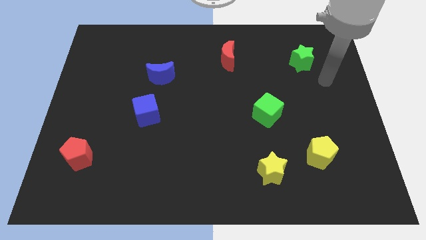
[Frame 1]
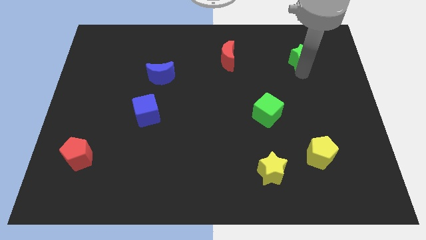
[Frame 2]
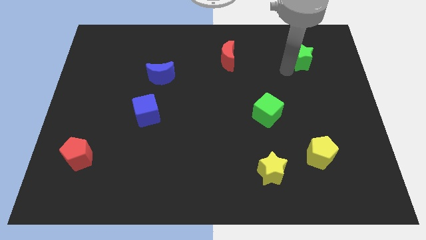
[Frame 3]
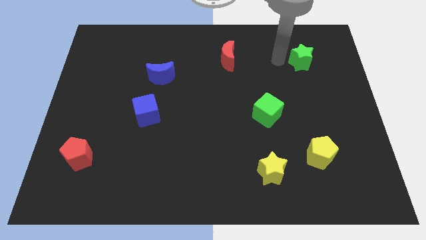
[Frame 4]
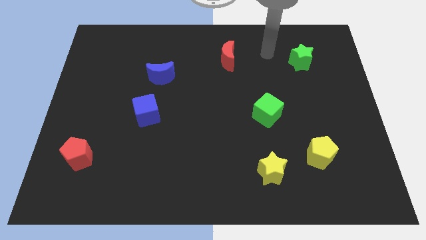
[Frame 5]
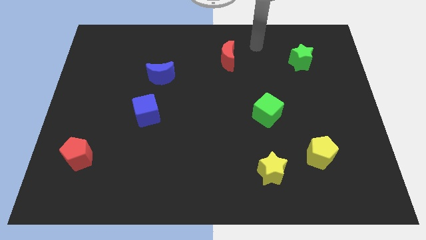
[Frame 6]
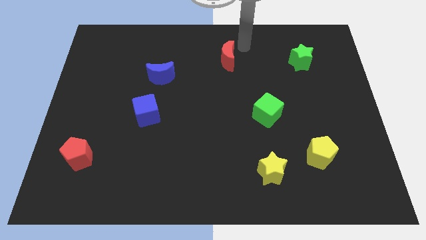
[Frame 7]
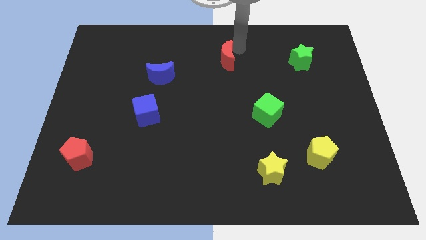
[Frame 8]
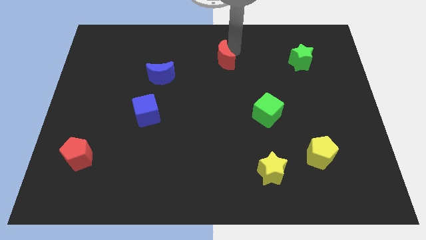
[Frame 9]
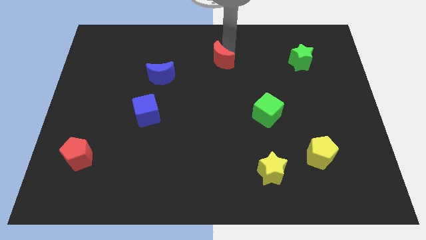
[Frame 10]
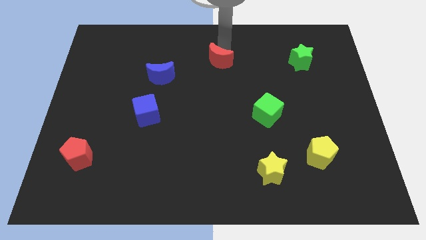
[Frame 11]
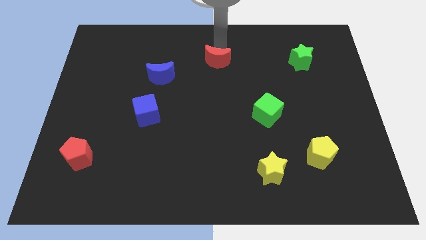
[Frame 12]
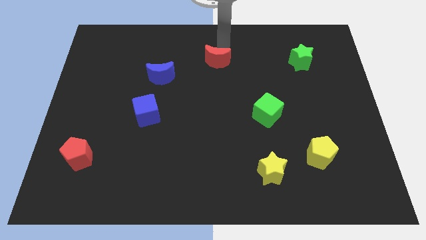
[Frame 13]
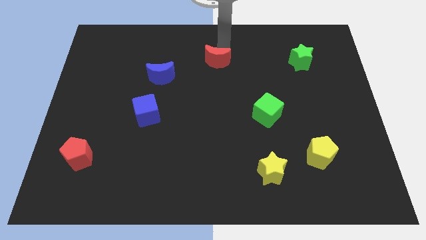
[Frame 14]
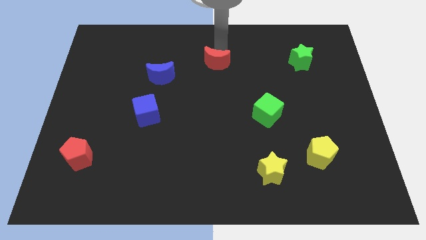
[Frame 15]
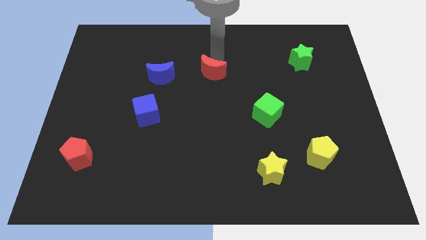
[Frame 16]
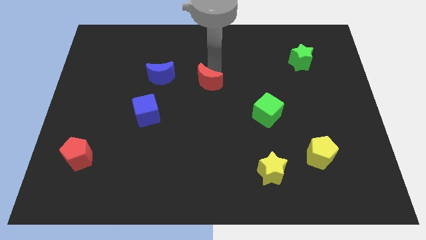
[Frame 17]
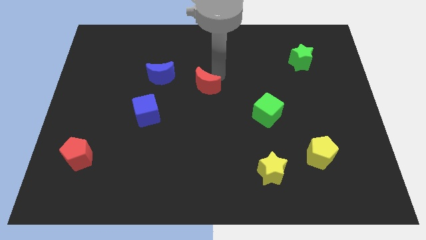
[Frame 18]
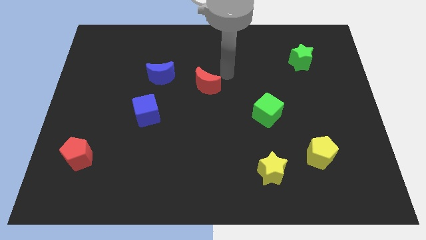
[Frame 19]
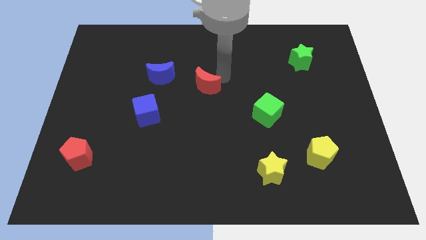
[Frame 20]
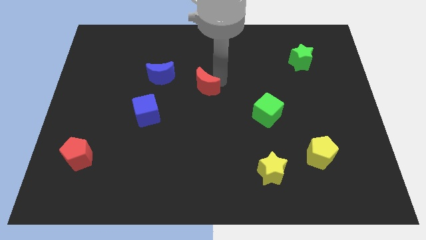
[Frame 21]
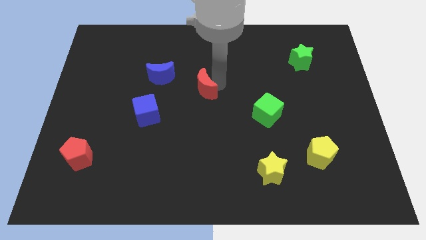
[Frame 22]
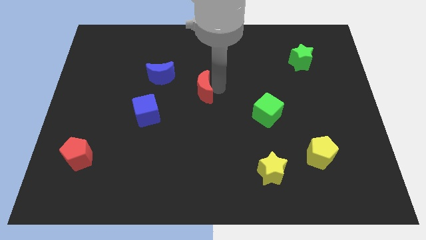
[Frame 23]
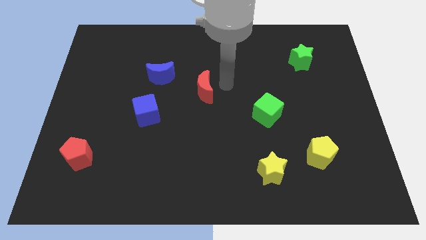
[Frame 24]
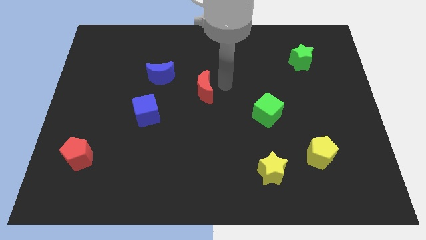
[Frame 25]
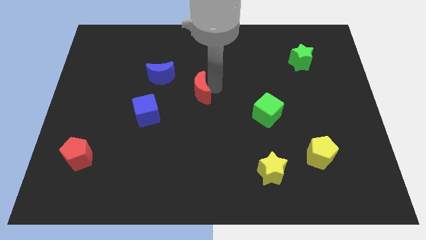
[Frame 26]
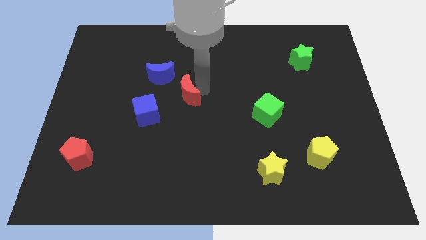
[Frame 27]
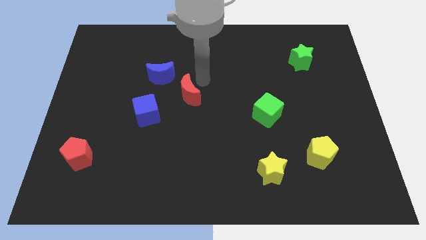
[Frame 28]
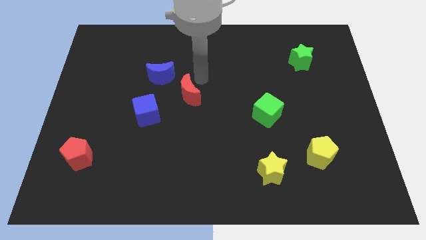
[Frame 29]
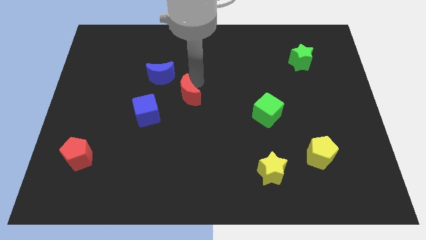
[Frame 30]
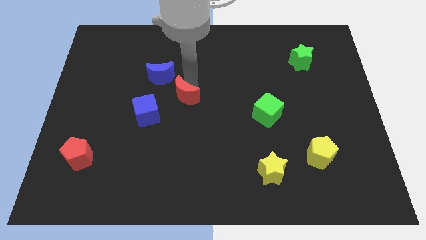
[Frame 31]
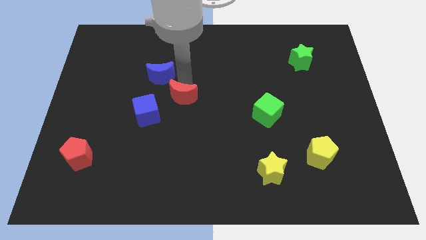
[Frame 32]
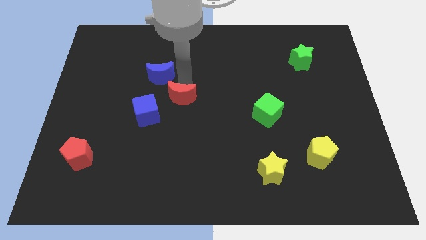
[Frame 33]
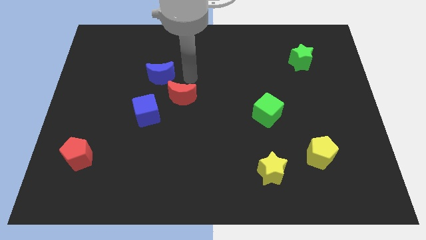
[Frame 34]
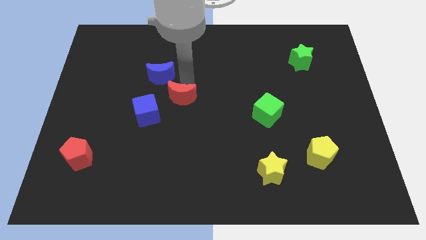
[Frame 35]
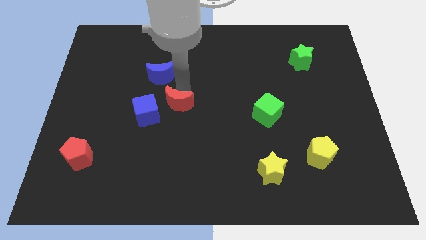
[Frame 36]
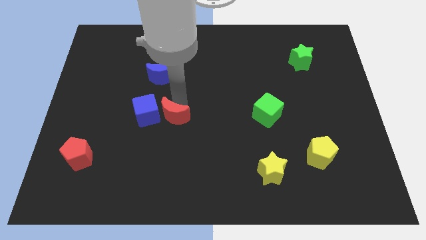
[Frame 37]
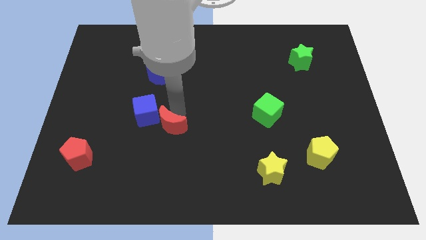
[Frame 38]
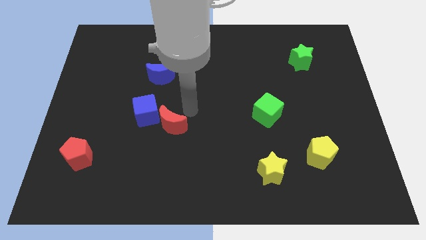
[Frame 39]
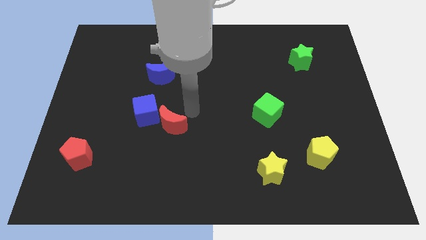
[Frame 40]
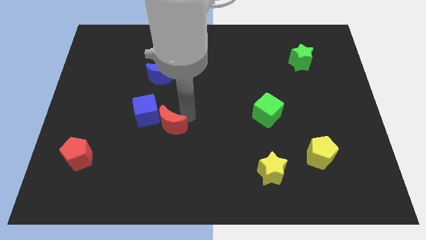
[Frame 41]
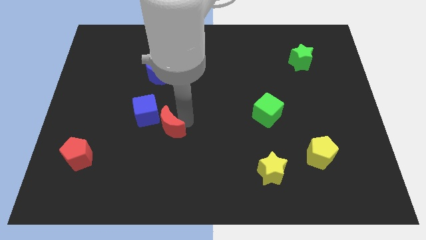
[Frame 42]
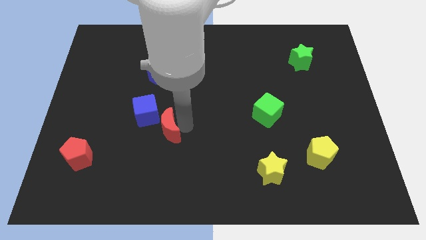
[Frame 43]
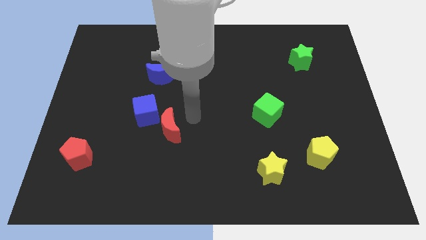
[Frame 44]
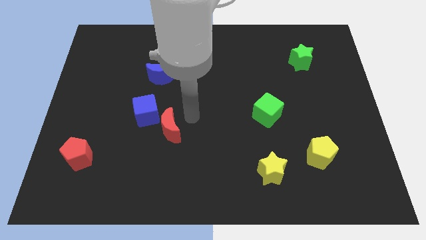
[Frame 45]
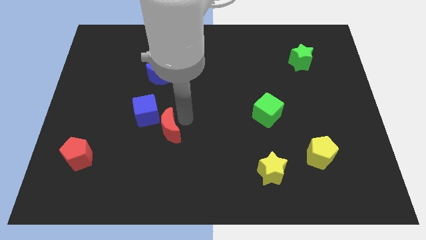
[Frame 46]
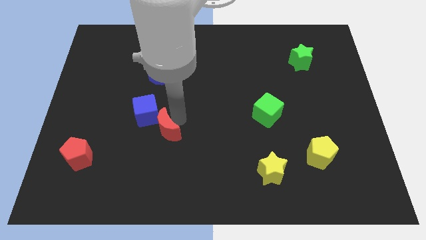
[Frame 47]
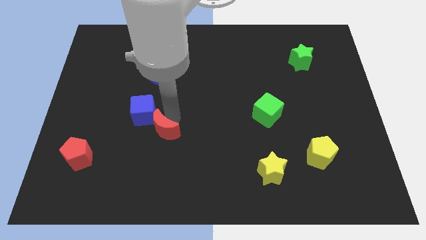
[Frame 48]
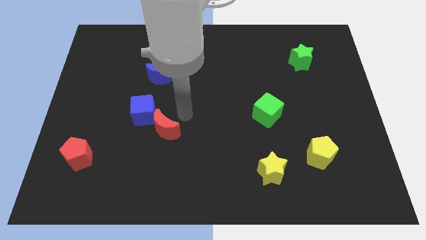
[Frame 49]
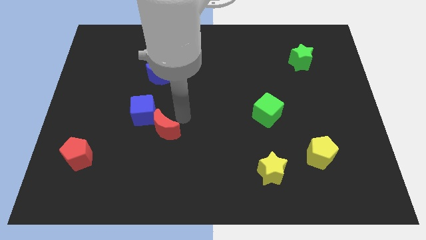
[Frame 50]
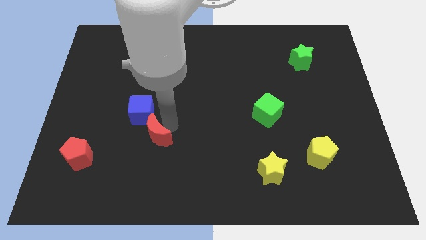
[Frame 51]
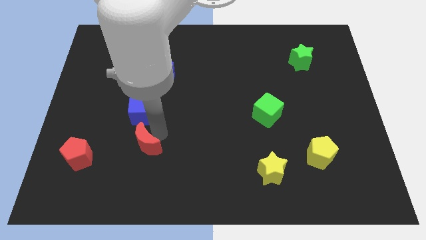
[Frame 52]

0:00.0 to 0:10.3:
put the red moon to the right side of the red pentagon
